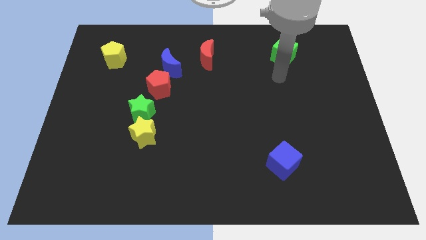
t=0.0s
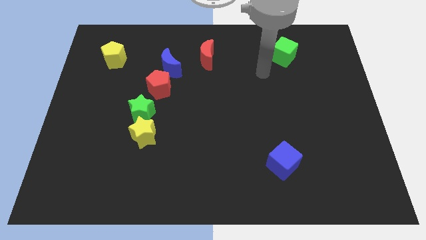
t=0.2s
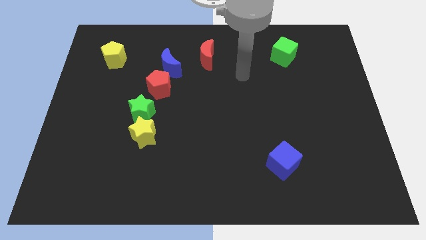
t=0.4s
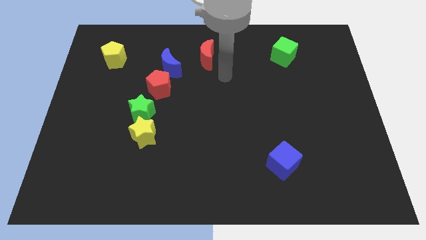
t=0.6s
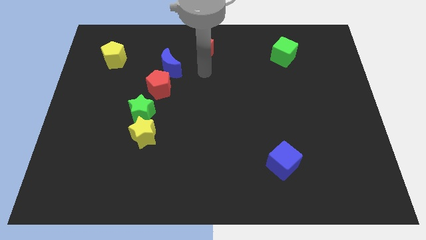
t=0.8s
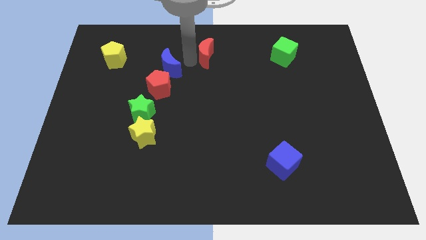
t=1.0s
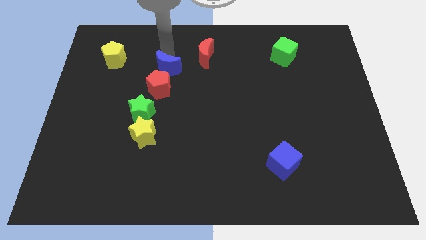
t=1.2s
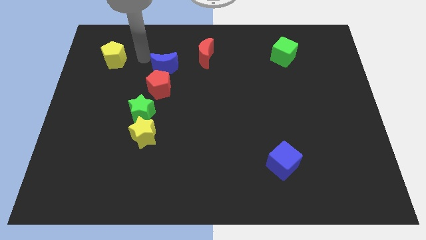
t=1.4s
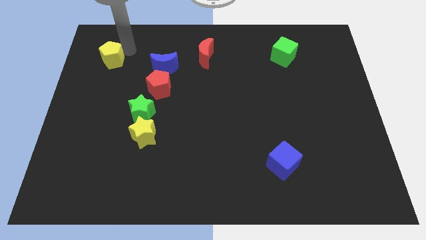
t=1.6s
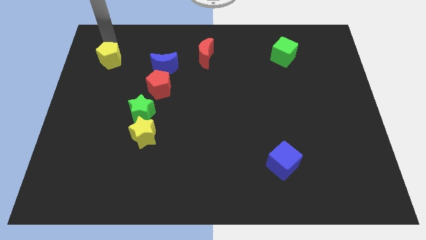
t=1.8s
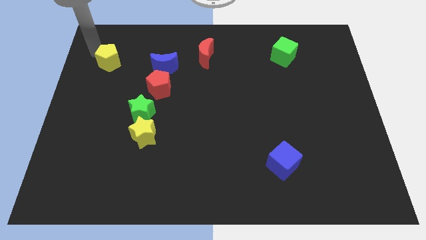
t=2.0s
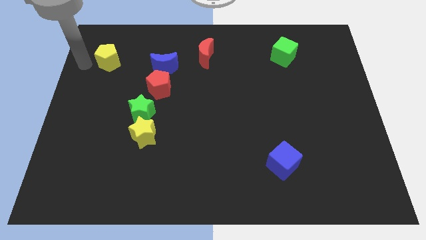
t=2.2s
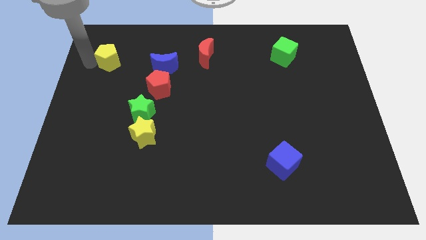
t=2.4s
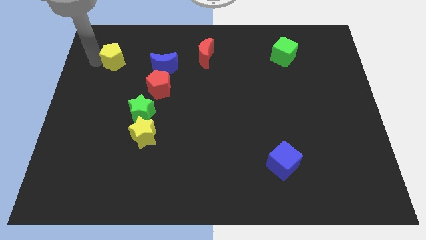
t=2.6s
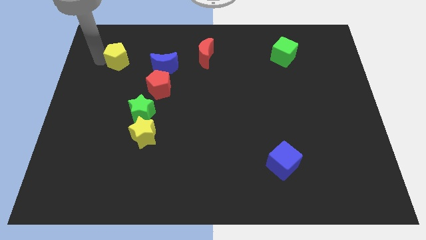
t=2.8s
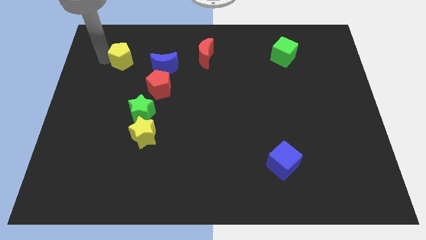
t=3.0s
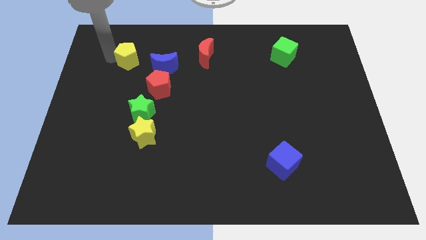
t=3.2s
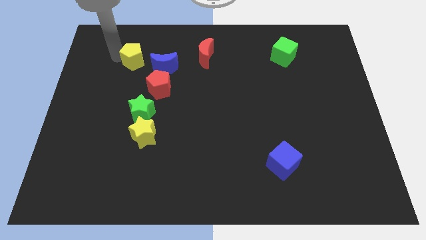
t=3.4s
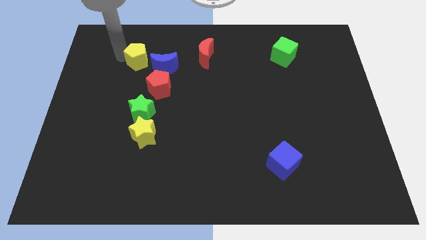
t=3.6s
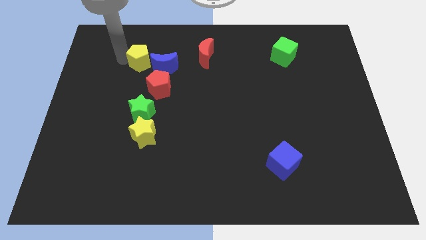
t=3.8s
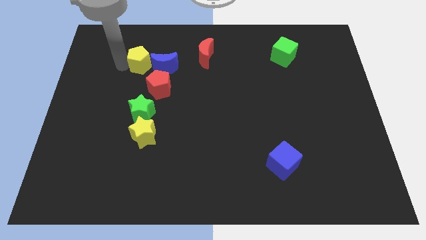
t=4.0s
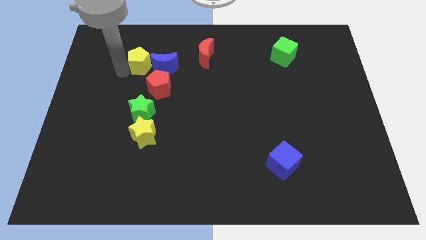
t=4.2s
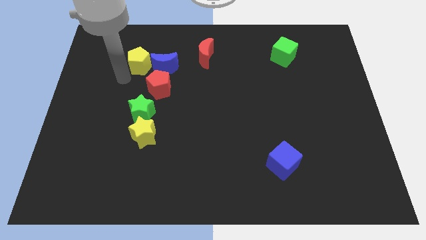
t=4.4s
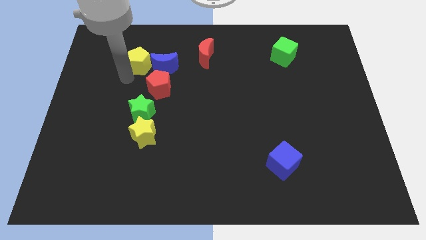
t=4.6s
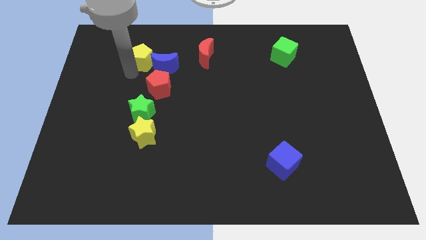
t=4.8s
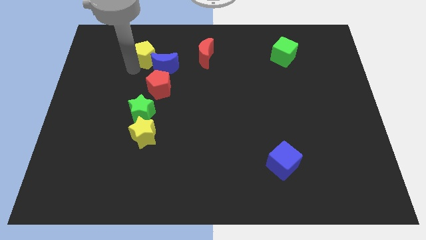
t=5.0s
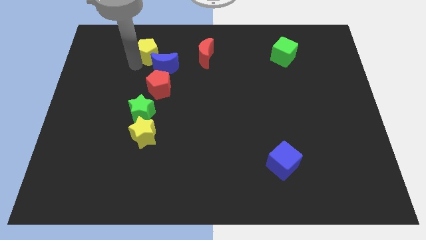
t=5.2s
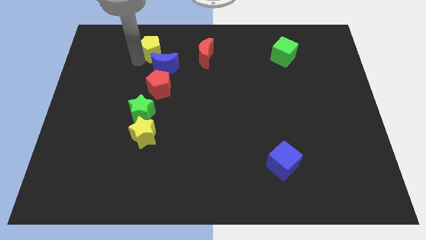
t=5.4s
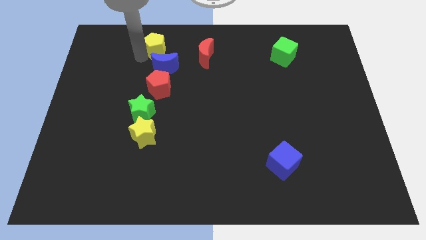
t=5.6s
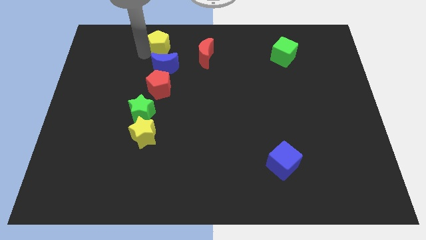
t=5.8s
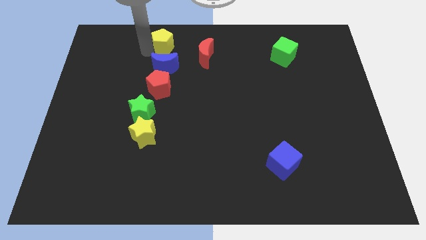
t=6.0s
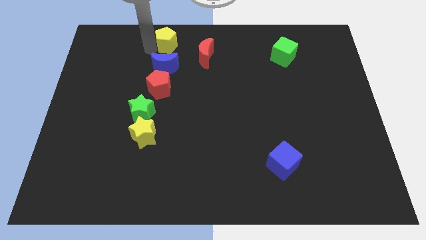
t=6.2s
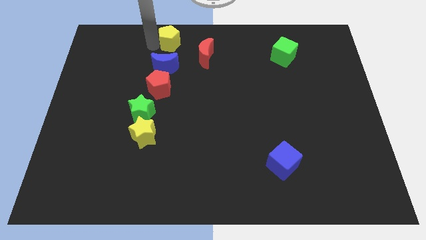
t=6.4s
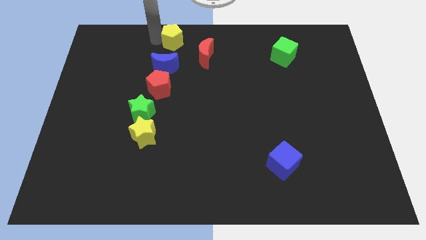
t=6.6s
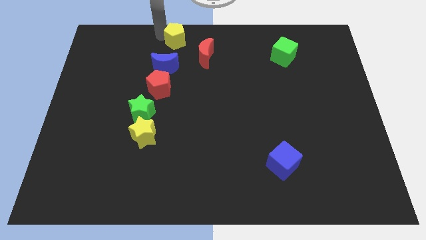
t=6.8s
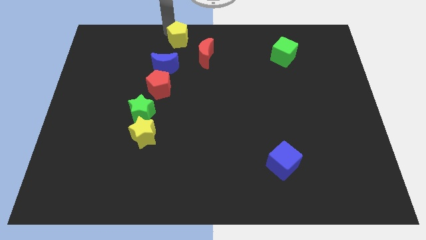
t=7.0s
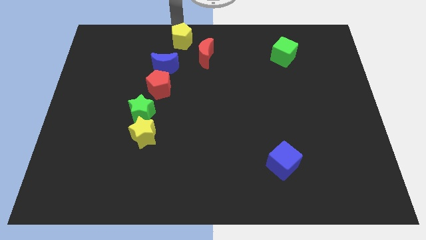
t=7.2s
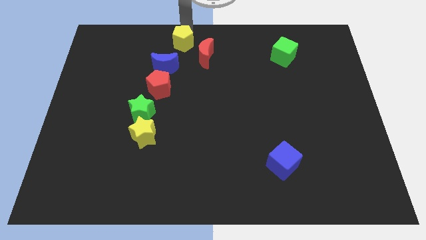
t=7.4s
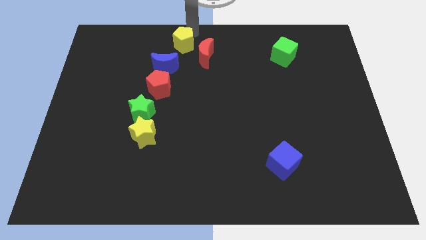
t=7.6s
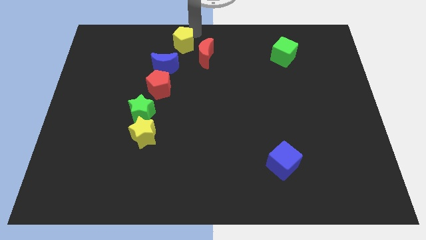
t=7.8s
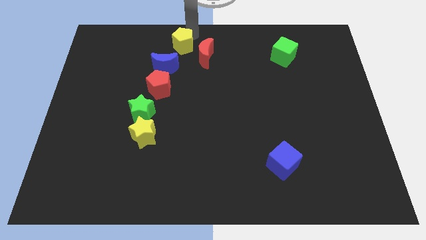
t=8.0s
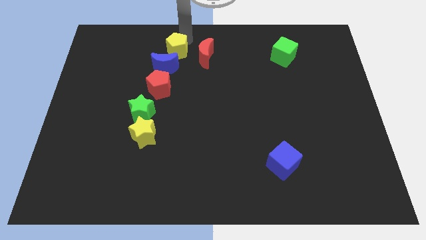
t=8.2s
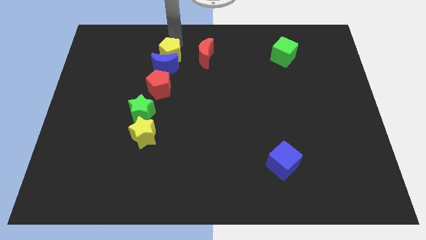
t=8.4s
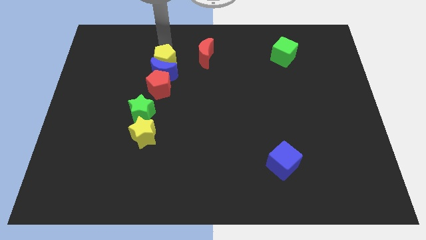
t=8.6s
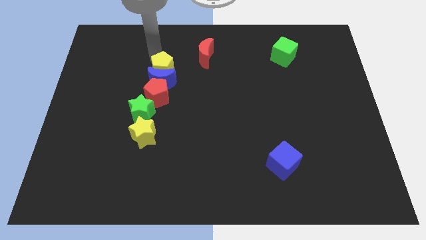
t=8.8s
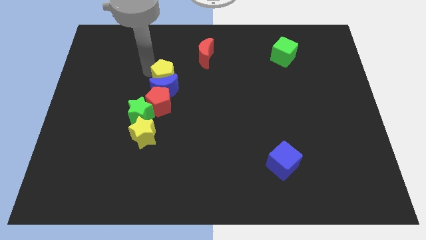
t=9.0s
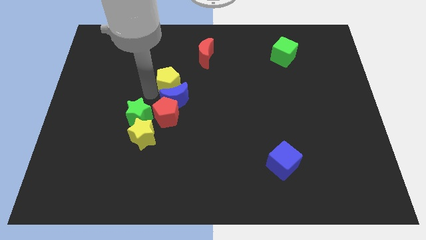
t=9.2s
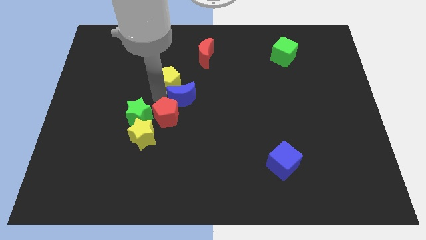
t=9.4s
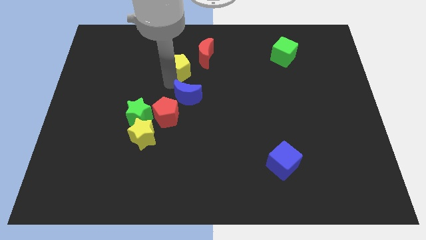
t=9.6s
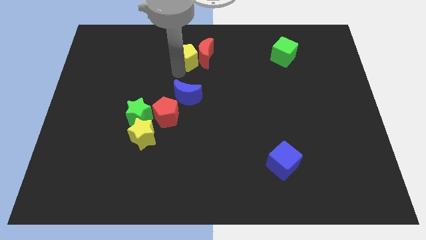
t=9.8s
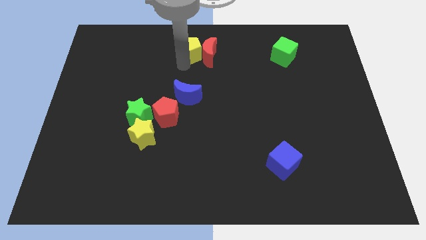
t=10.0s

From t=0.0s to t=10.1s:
push the yellow pentagon right

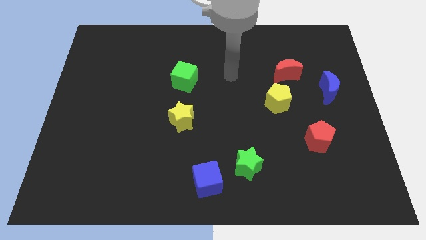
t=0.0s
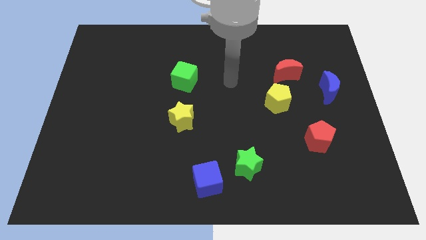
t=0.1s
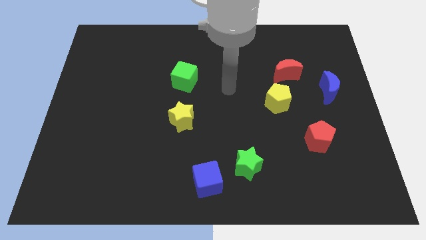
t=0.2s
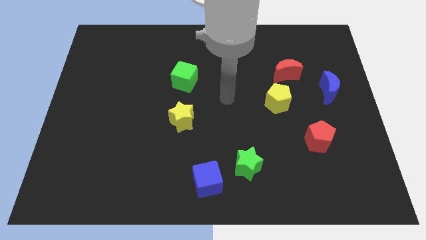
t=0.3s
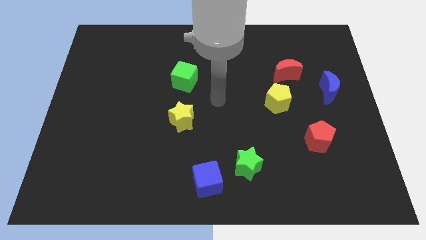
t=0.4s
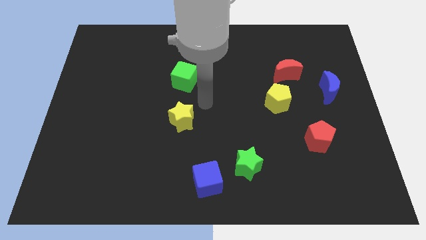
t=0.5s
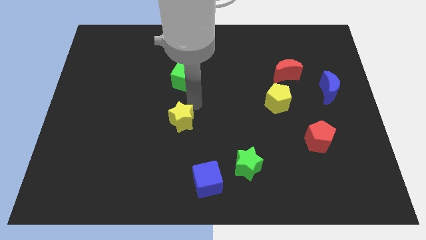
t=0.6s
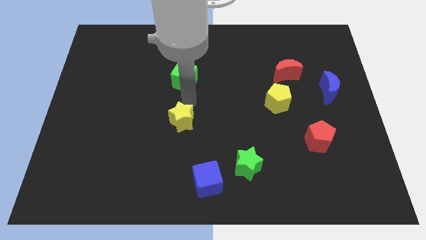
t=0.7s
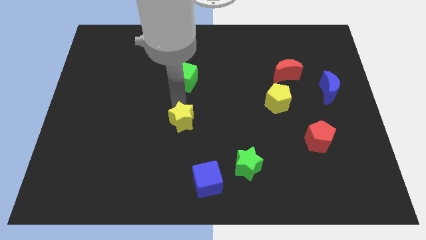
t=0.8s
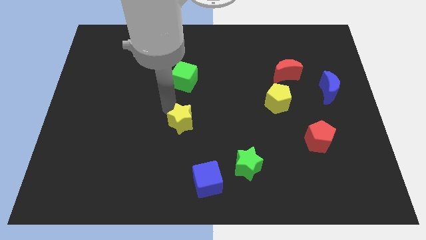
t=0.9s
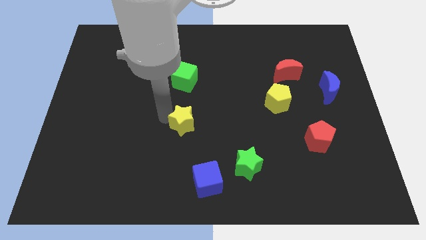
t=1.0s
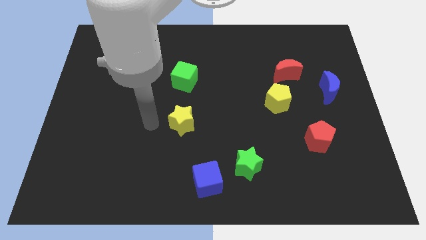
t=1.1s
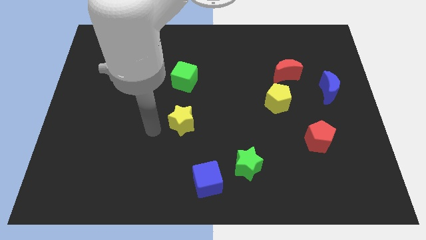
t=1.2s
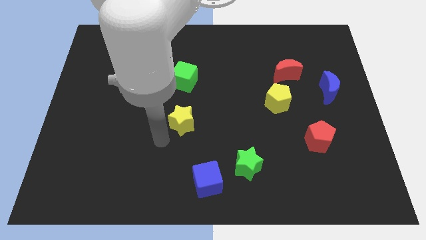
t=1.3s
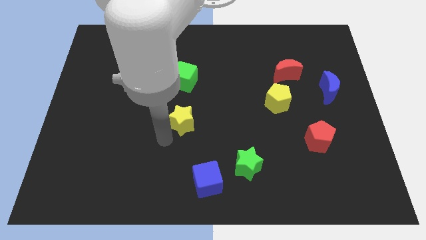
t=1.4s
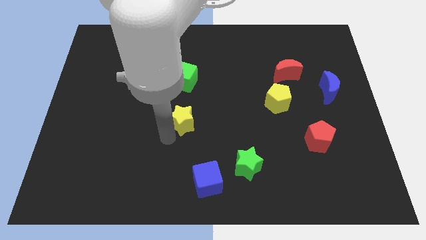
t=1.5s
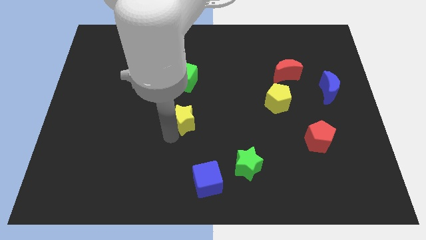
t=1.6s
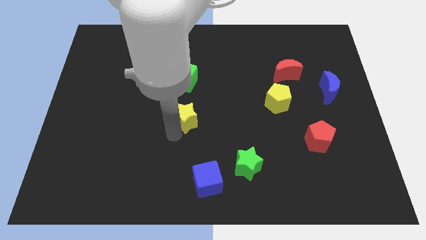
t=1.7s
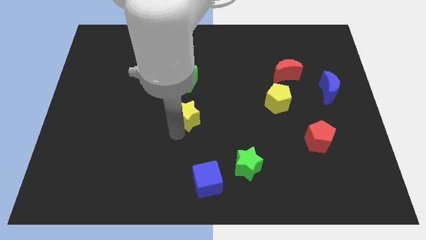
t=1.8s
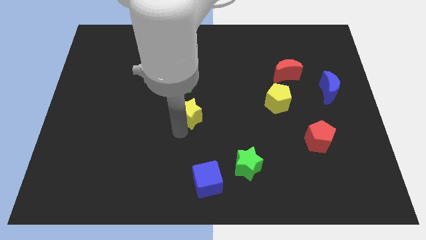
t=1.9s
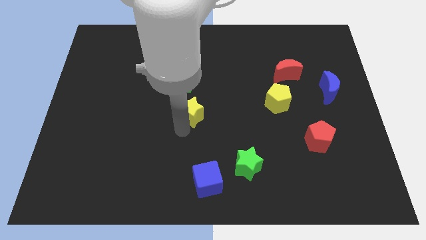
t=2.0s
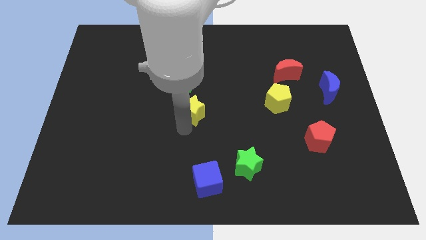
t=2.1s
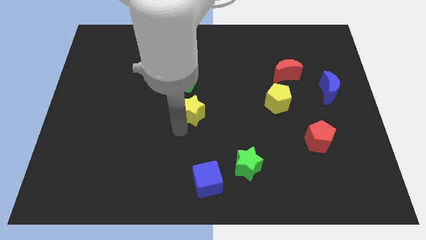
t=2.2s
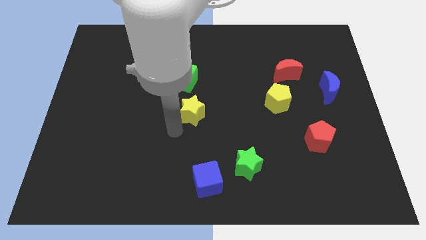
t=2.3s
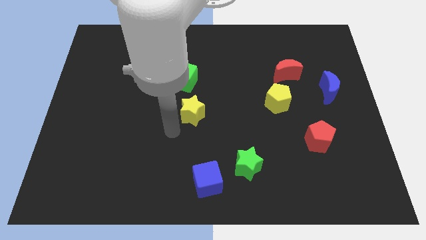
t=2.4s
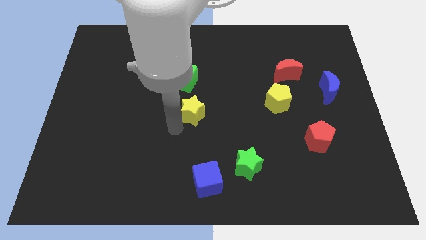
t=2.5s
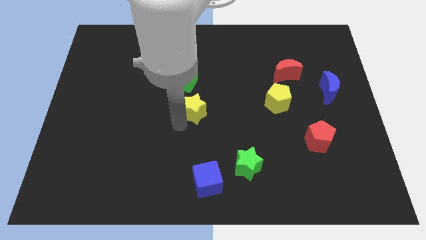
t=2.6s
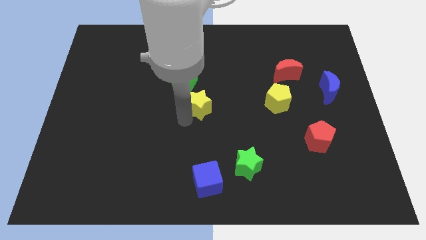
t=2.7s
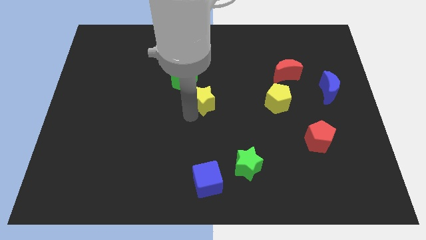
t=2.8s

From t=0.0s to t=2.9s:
slide the yellow star a little bit up and right diagonally

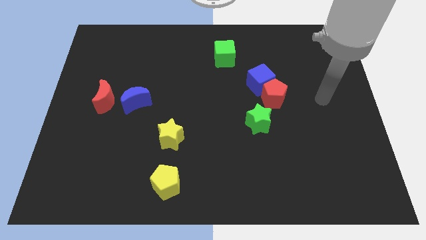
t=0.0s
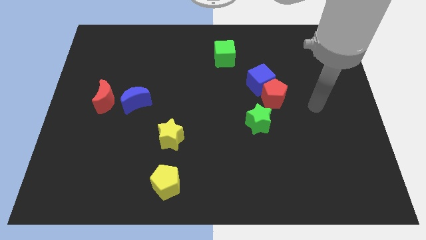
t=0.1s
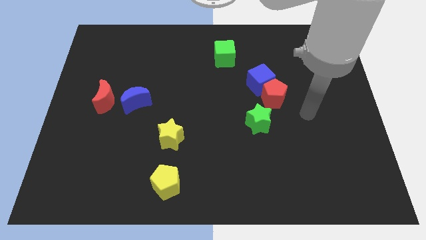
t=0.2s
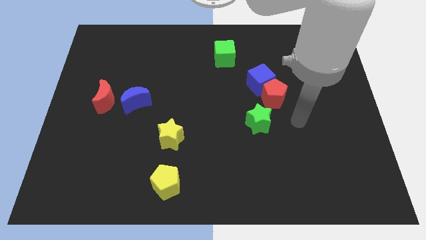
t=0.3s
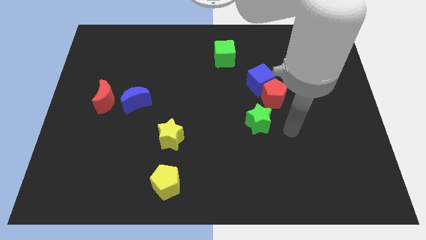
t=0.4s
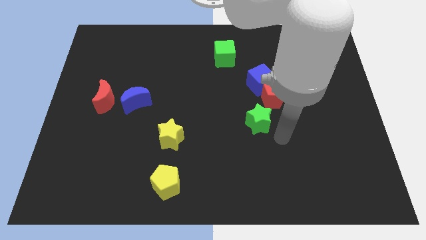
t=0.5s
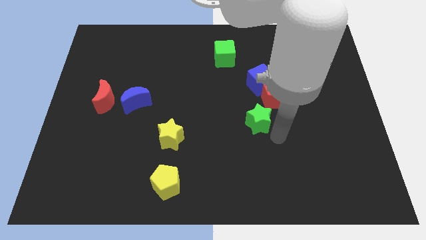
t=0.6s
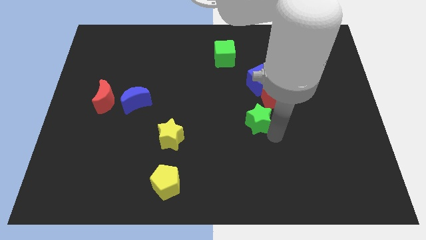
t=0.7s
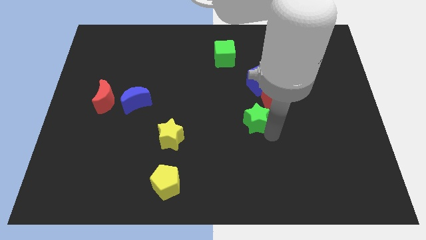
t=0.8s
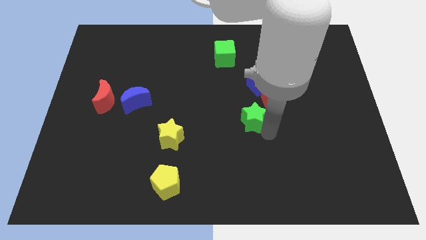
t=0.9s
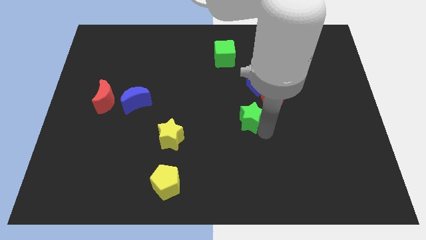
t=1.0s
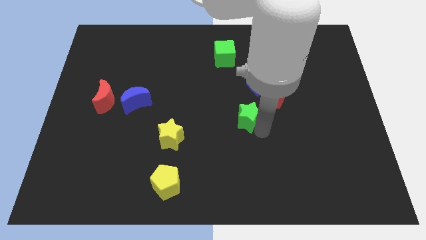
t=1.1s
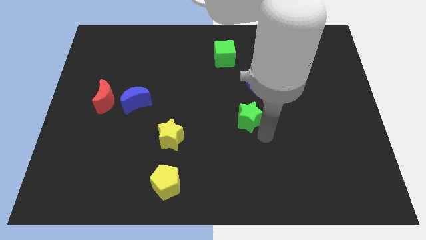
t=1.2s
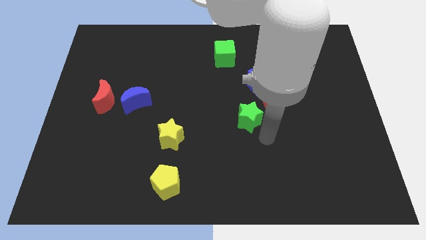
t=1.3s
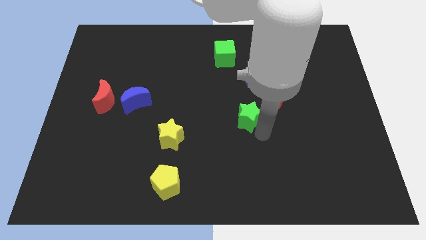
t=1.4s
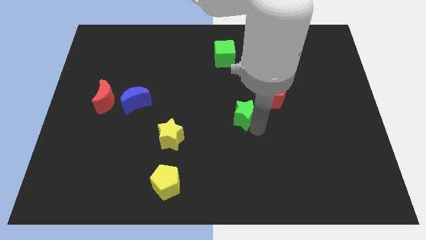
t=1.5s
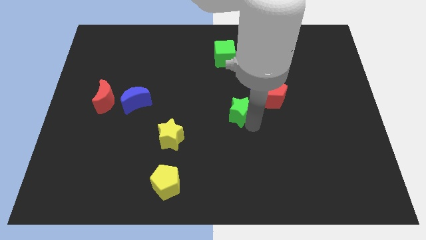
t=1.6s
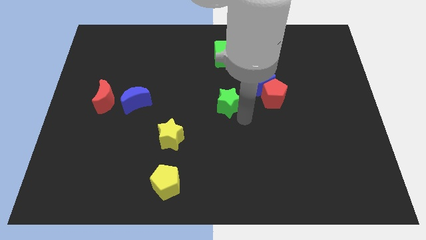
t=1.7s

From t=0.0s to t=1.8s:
slightly move the green star diagonally upwards and left
